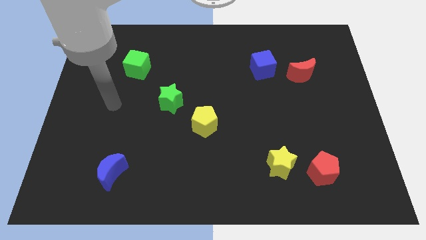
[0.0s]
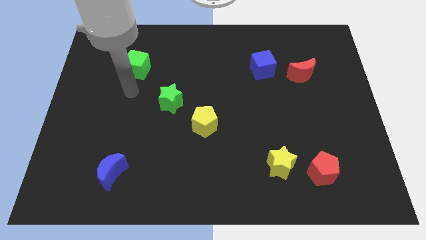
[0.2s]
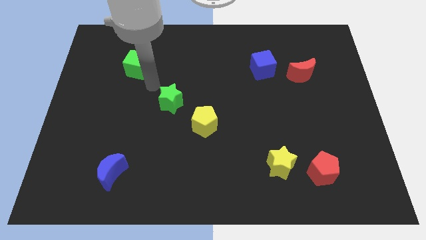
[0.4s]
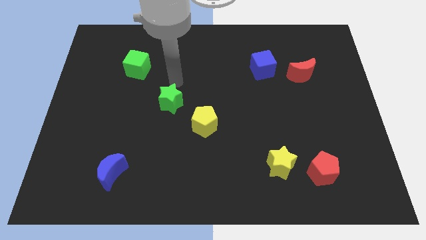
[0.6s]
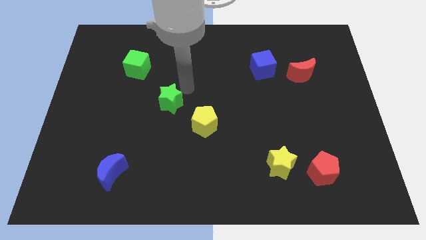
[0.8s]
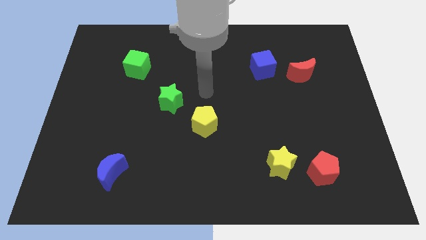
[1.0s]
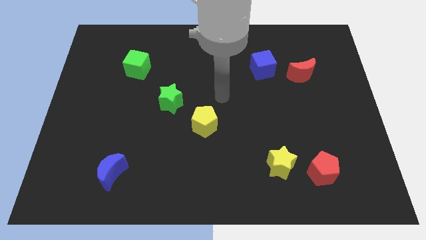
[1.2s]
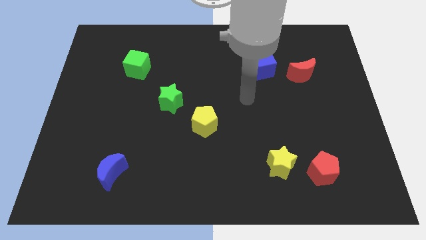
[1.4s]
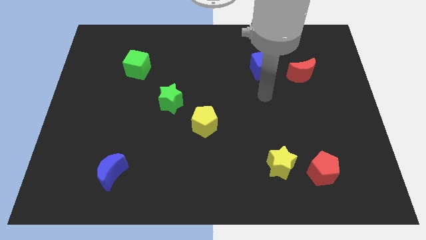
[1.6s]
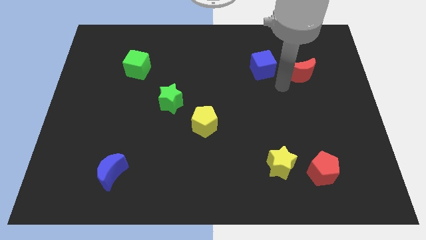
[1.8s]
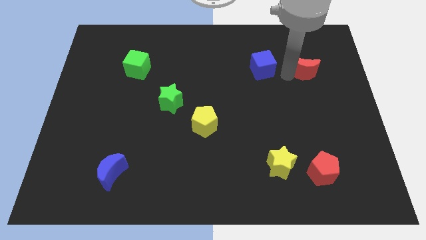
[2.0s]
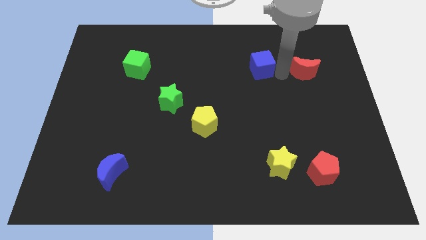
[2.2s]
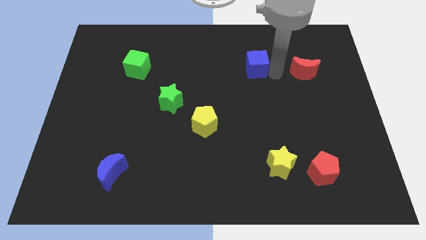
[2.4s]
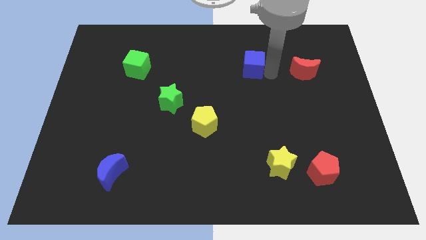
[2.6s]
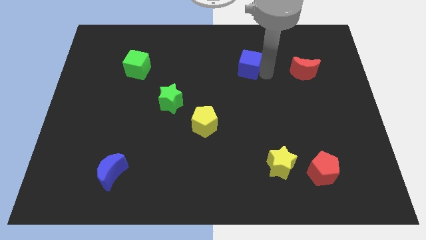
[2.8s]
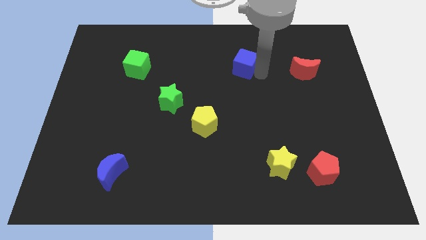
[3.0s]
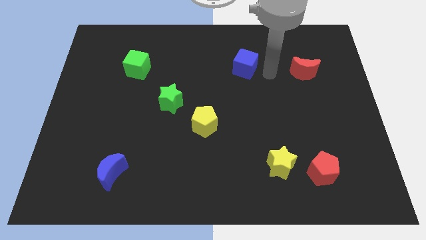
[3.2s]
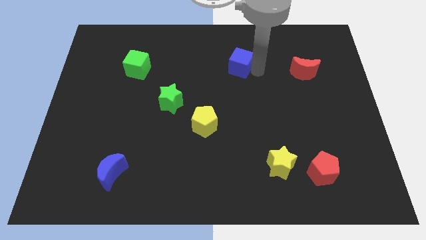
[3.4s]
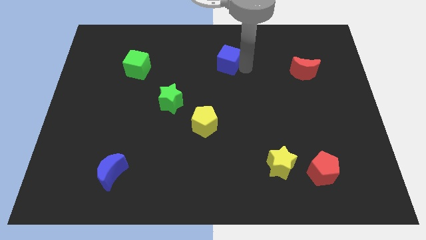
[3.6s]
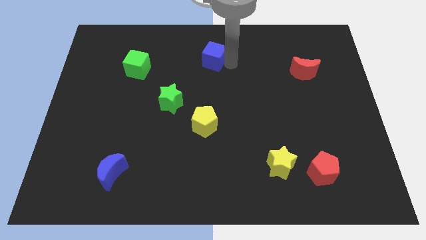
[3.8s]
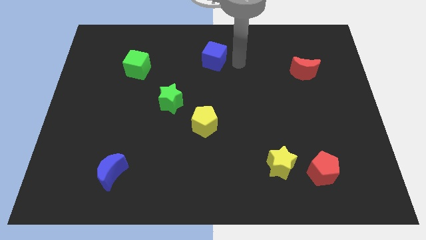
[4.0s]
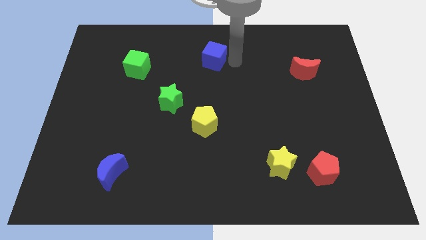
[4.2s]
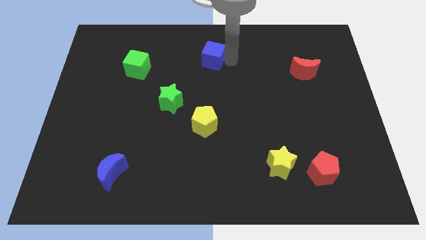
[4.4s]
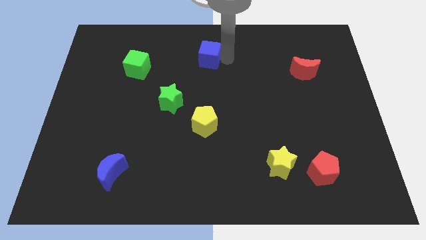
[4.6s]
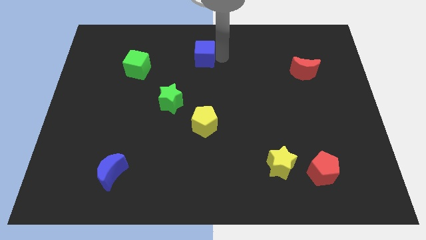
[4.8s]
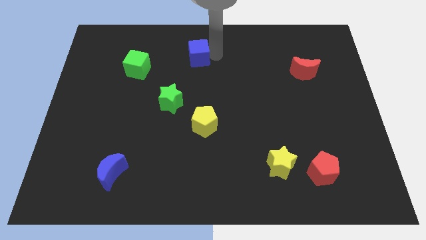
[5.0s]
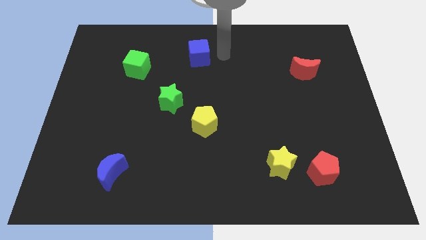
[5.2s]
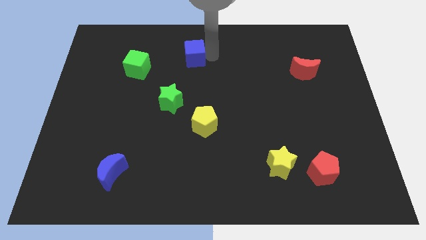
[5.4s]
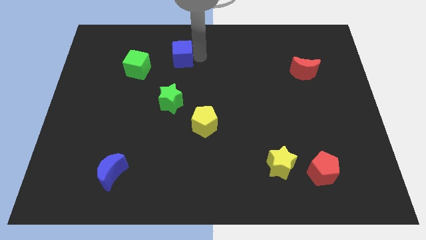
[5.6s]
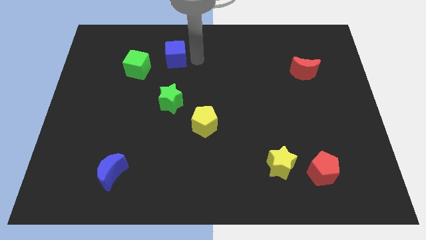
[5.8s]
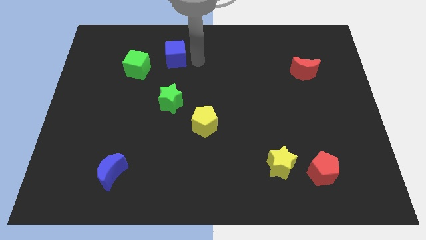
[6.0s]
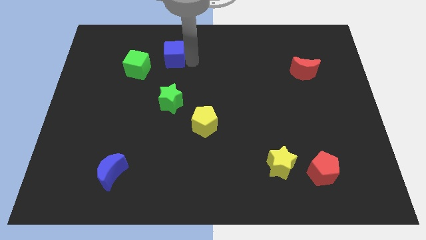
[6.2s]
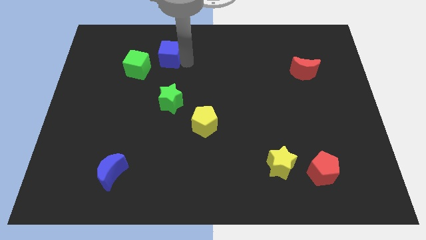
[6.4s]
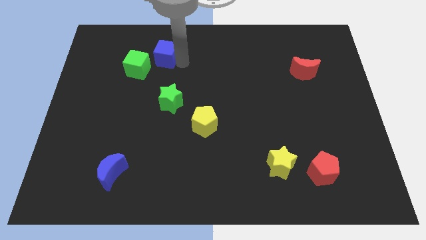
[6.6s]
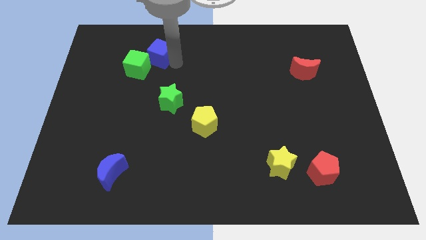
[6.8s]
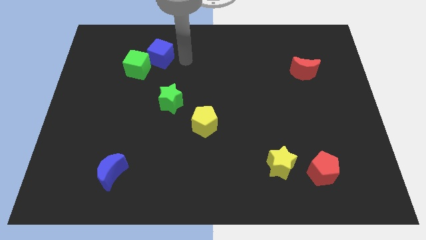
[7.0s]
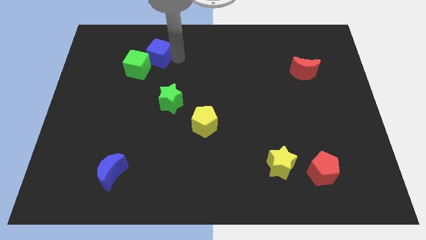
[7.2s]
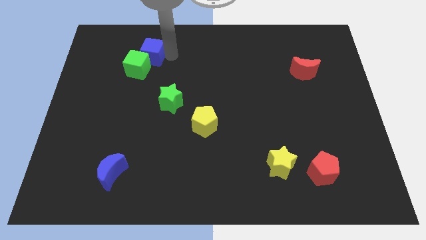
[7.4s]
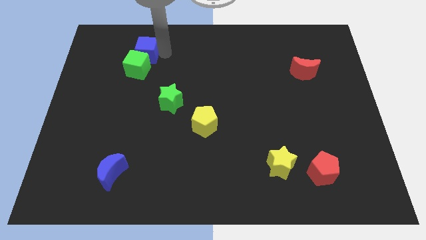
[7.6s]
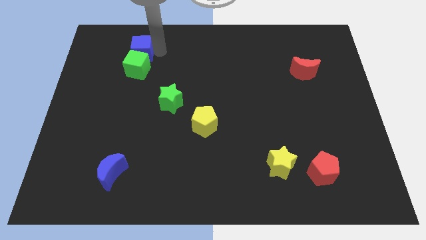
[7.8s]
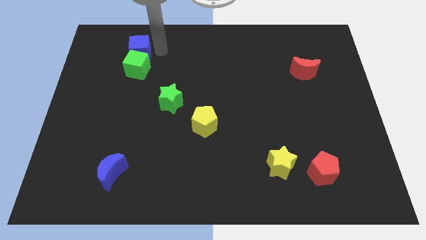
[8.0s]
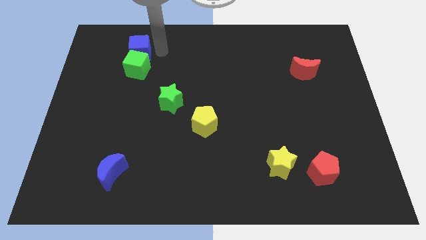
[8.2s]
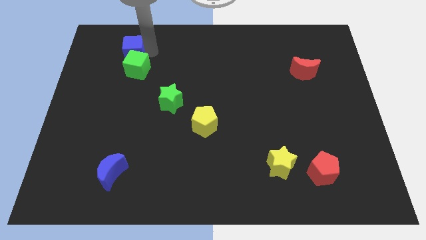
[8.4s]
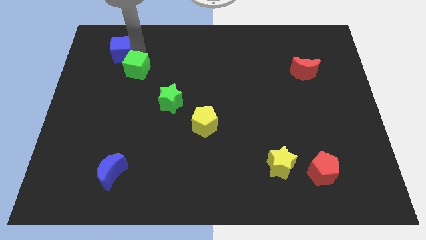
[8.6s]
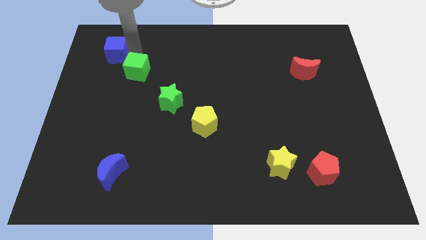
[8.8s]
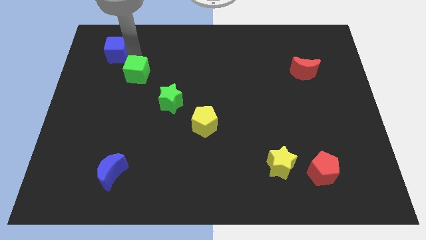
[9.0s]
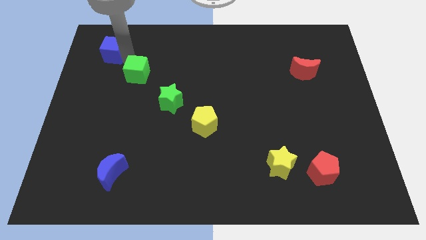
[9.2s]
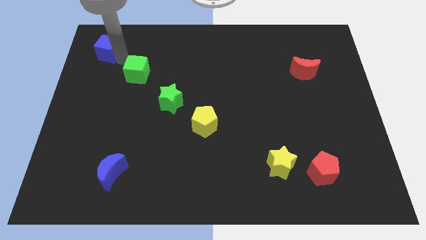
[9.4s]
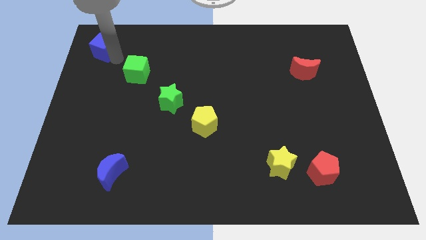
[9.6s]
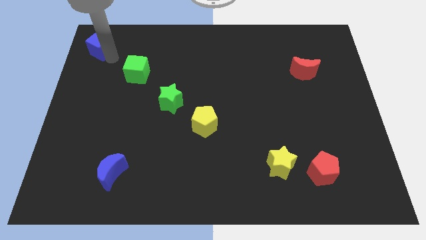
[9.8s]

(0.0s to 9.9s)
move the blue cube to the top left

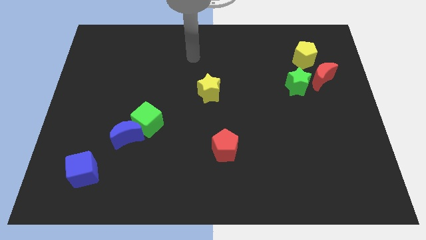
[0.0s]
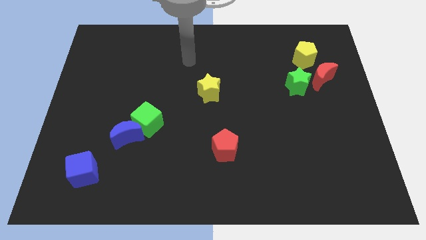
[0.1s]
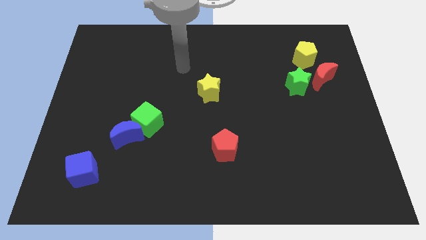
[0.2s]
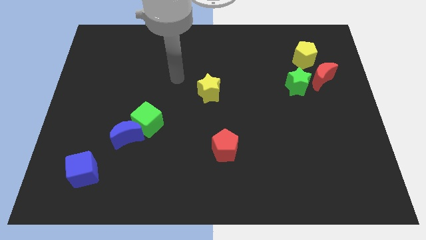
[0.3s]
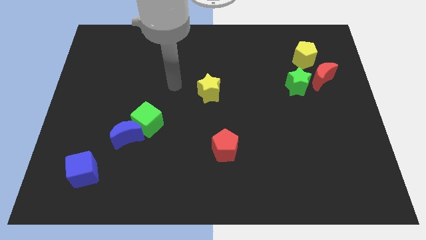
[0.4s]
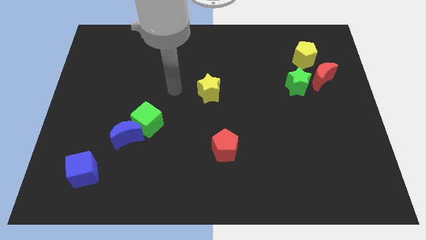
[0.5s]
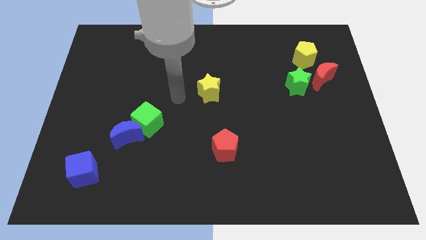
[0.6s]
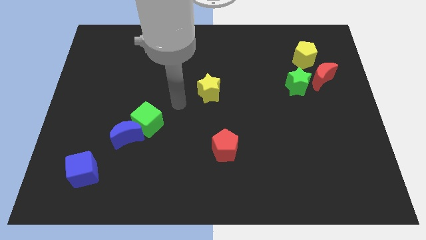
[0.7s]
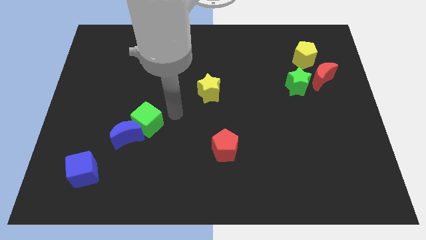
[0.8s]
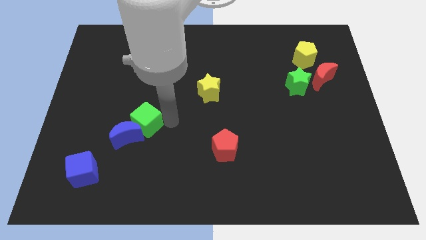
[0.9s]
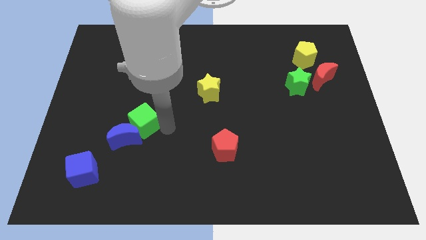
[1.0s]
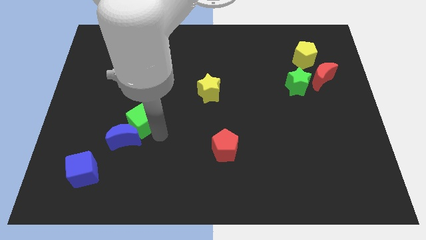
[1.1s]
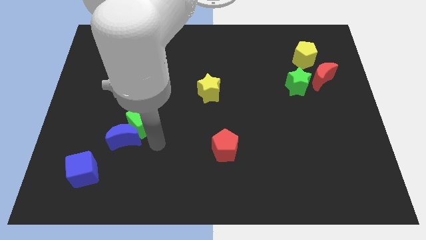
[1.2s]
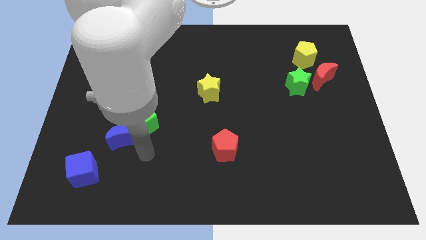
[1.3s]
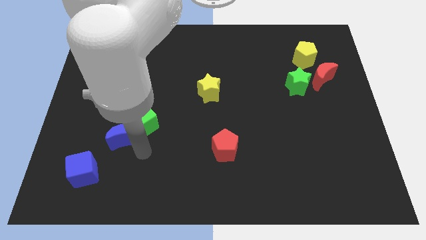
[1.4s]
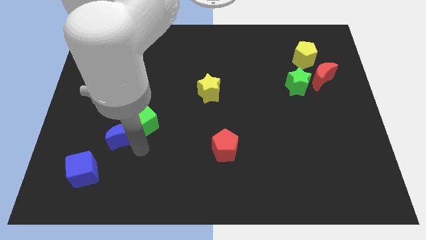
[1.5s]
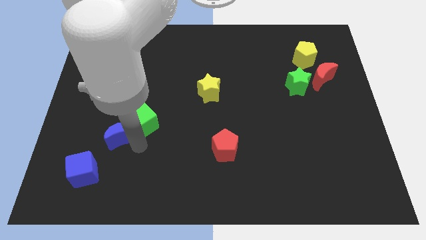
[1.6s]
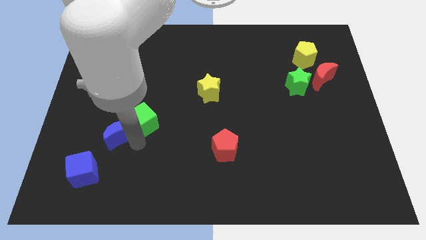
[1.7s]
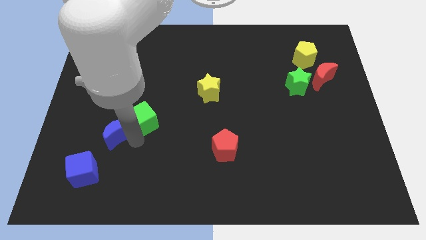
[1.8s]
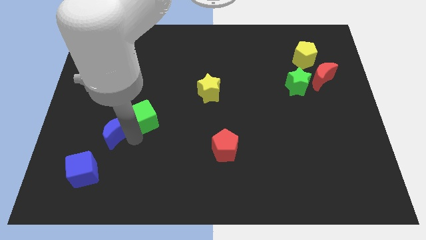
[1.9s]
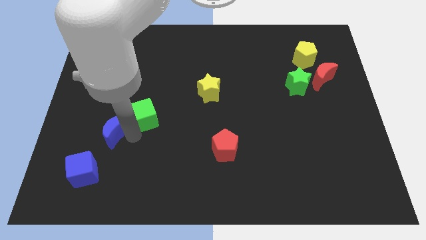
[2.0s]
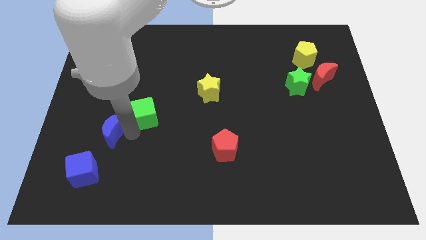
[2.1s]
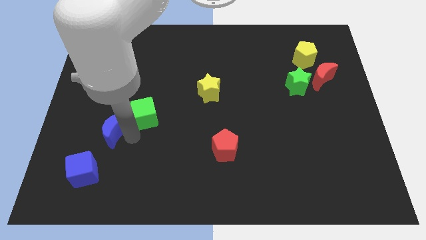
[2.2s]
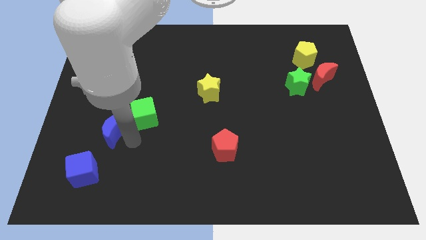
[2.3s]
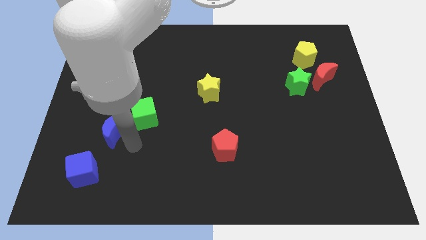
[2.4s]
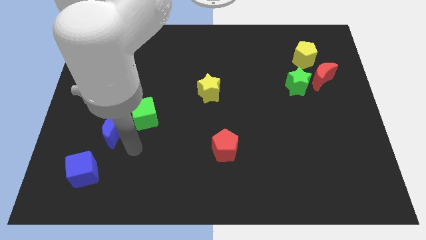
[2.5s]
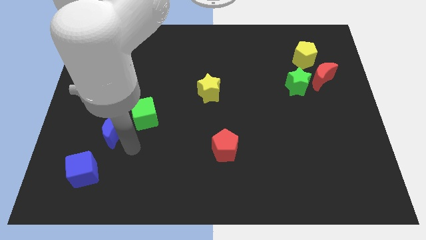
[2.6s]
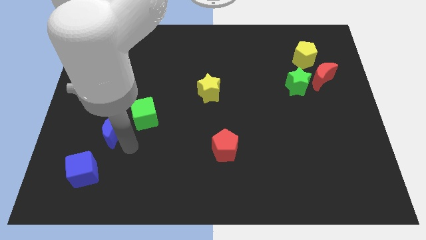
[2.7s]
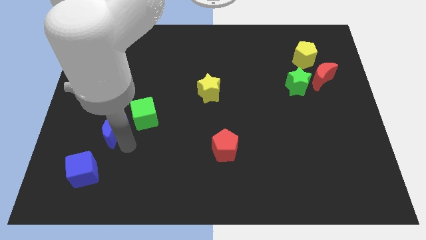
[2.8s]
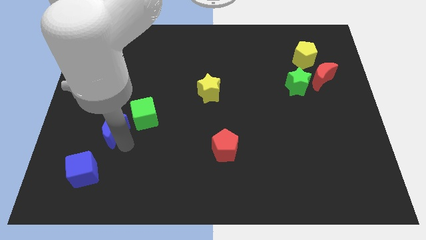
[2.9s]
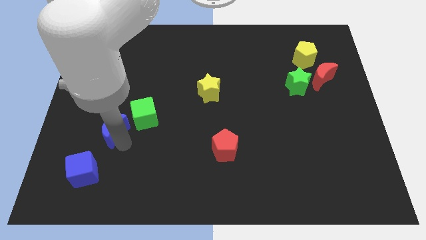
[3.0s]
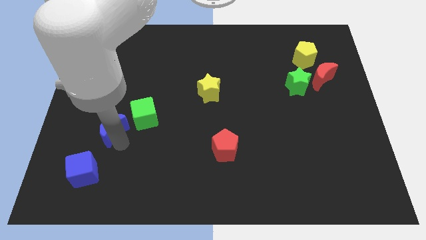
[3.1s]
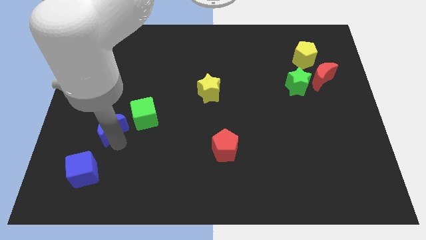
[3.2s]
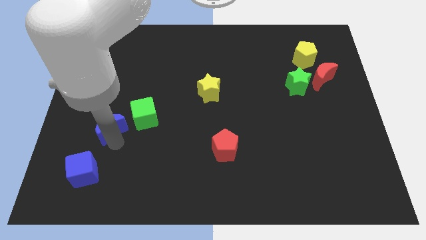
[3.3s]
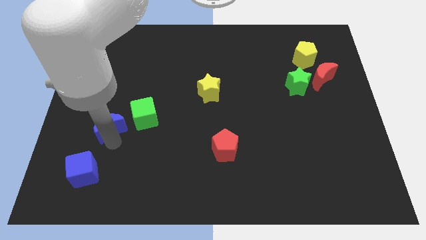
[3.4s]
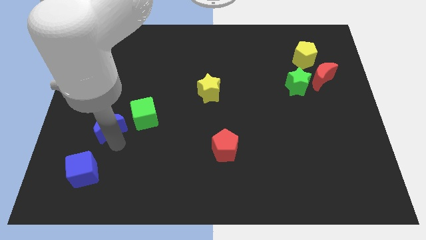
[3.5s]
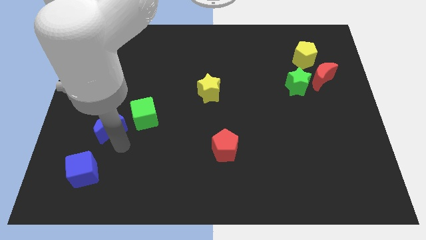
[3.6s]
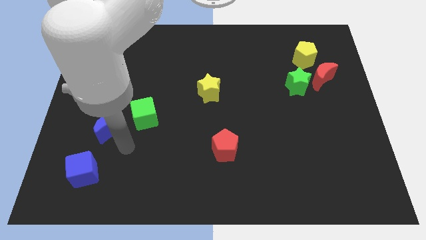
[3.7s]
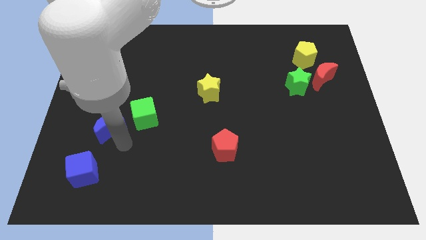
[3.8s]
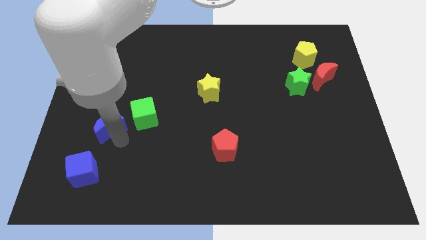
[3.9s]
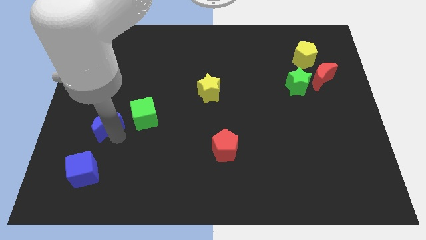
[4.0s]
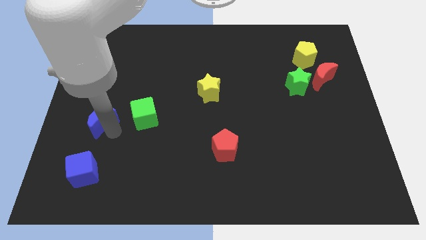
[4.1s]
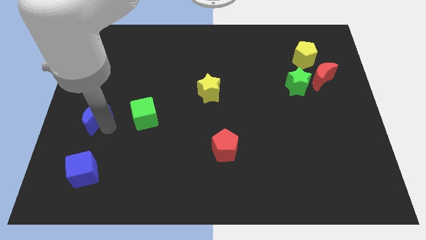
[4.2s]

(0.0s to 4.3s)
move the blue moon to the center left
